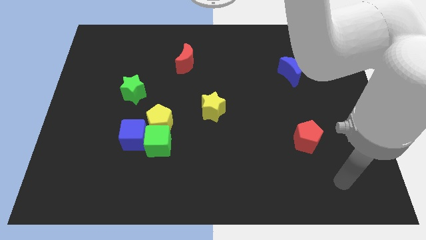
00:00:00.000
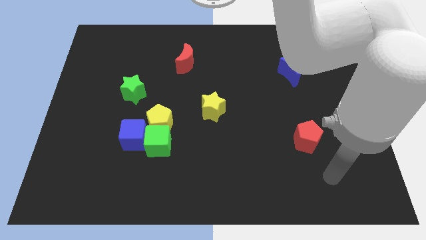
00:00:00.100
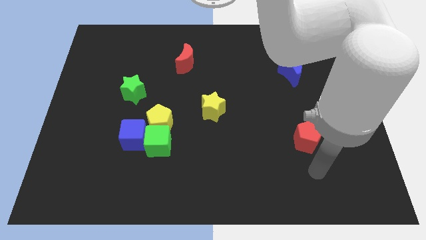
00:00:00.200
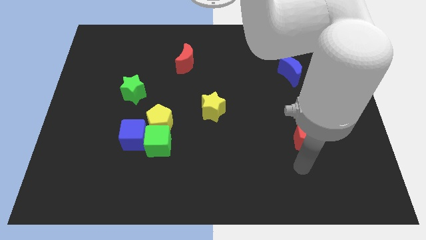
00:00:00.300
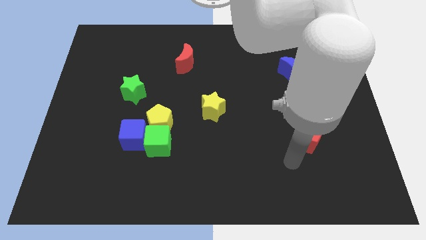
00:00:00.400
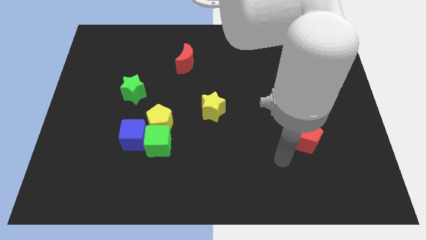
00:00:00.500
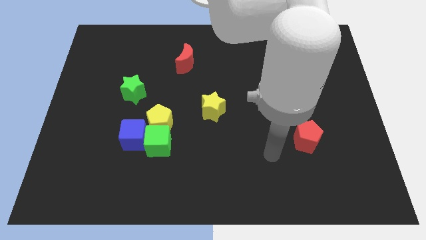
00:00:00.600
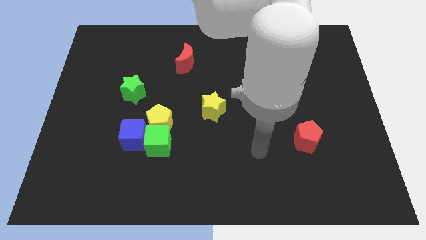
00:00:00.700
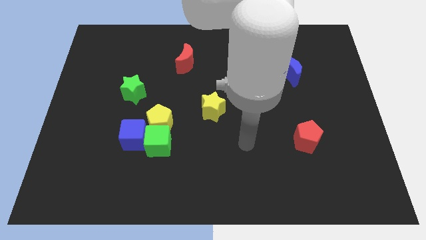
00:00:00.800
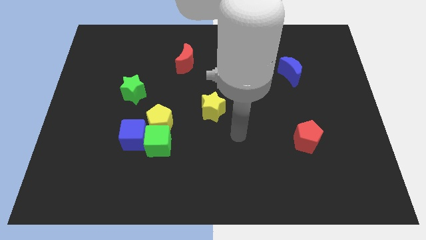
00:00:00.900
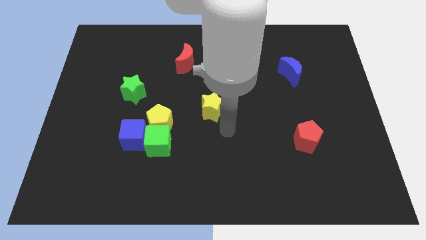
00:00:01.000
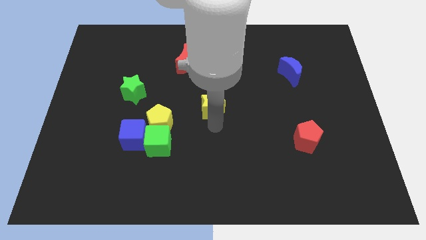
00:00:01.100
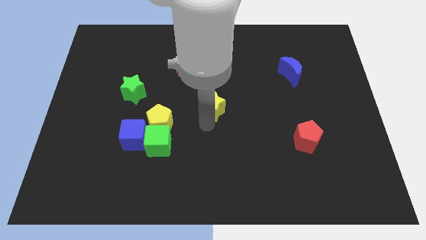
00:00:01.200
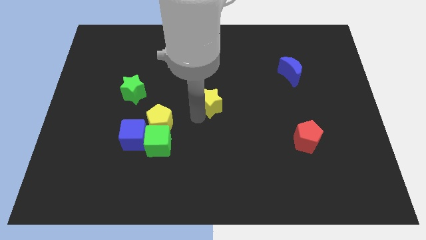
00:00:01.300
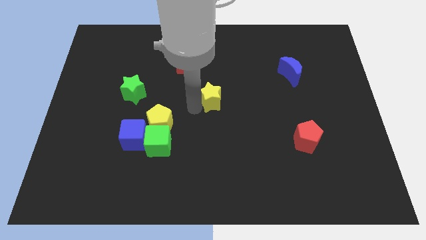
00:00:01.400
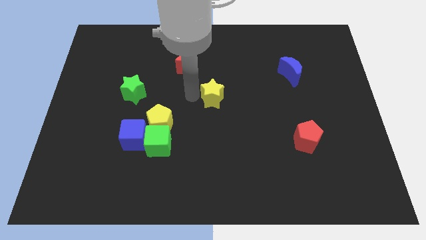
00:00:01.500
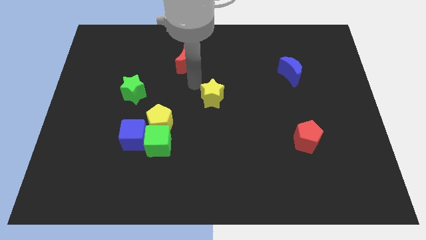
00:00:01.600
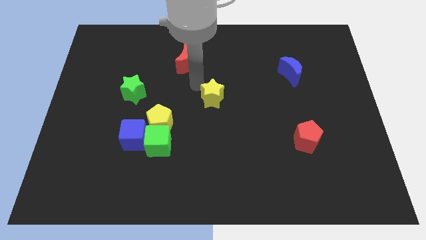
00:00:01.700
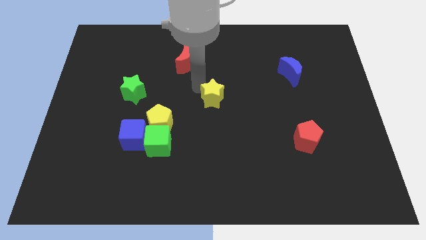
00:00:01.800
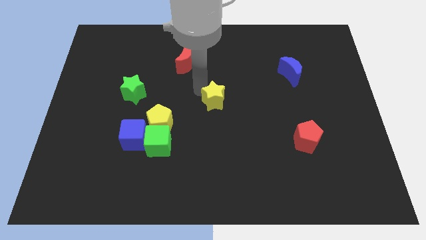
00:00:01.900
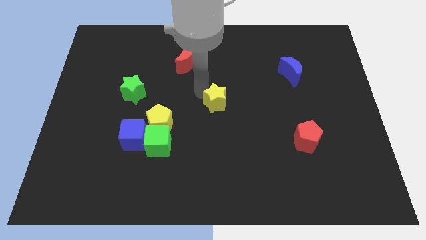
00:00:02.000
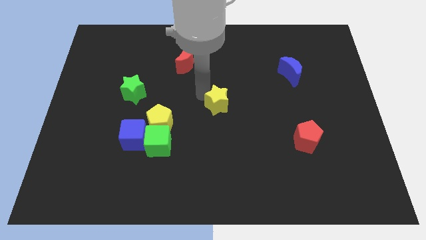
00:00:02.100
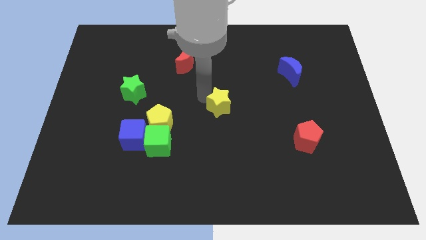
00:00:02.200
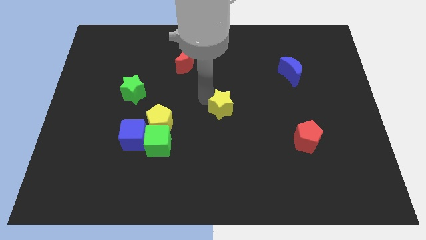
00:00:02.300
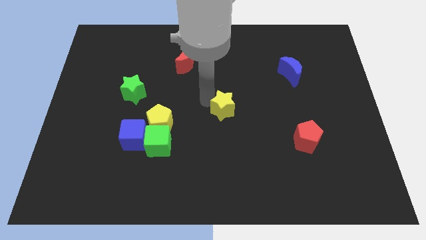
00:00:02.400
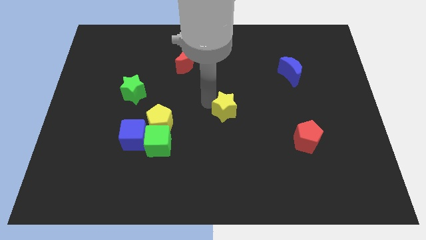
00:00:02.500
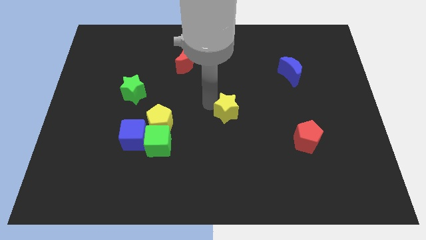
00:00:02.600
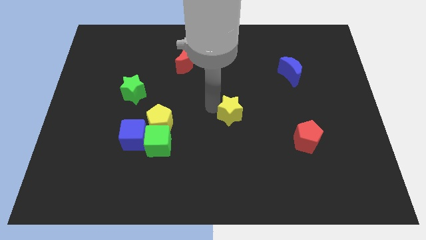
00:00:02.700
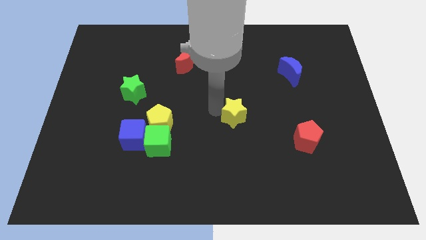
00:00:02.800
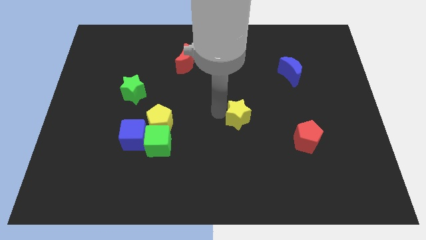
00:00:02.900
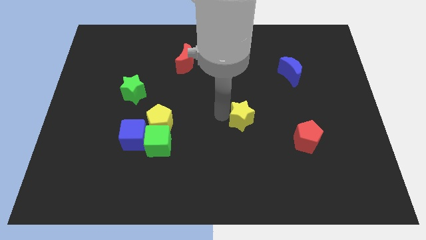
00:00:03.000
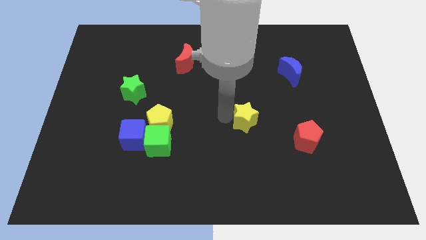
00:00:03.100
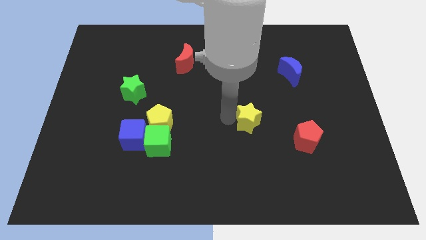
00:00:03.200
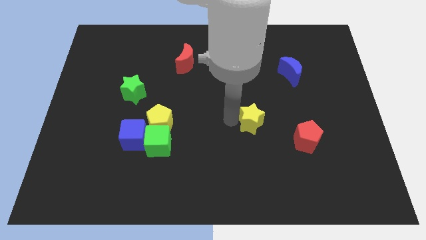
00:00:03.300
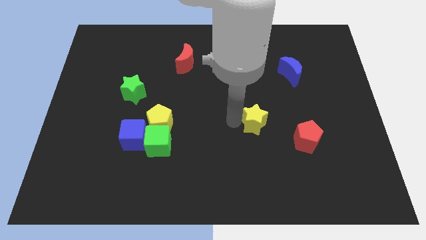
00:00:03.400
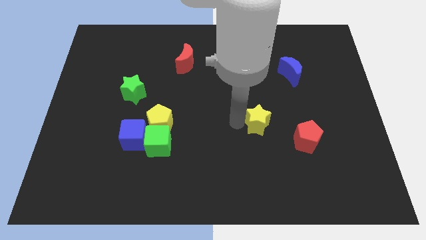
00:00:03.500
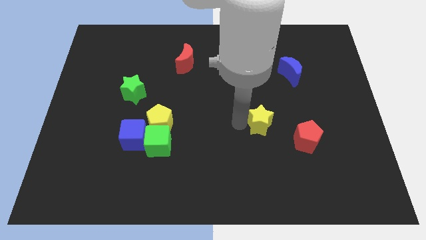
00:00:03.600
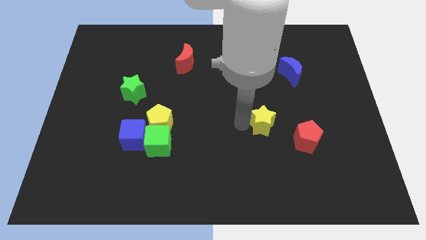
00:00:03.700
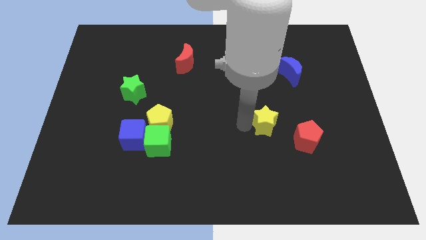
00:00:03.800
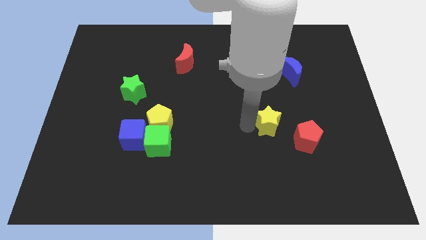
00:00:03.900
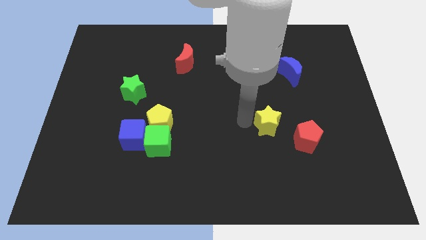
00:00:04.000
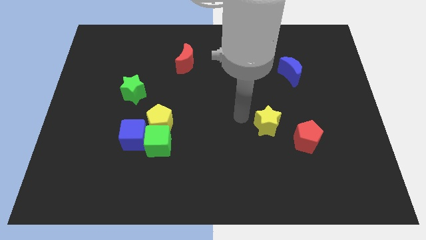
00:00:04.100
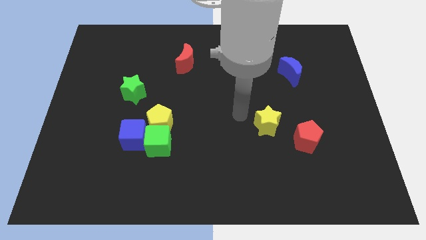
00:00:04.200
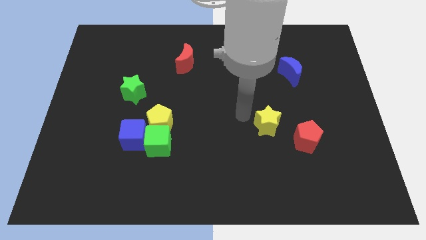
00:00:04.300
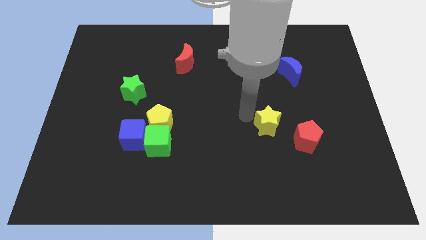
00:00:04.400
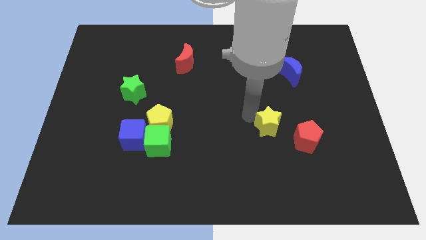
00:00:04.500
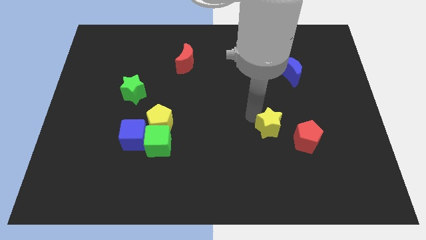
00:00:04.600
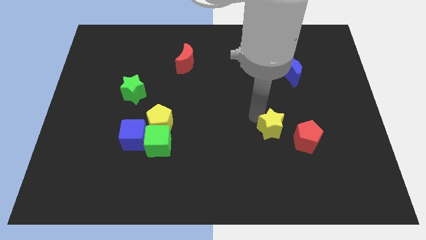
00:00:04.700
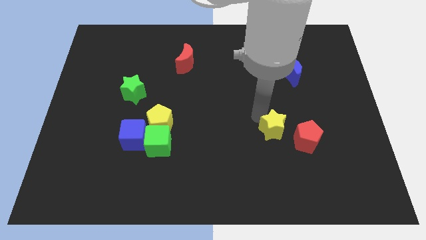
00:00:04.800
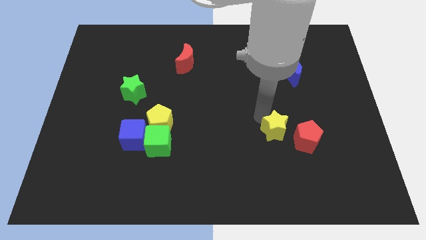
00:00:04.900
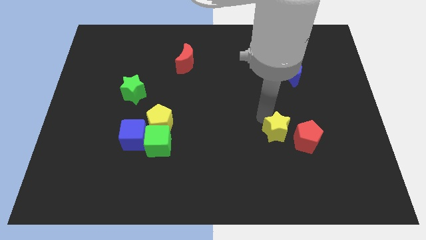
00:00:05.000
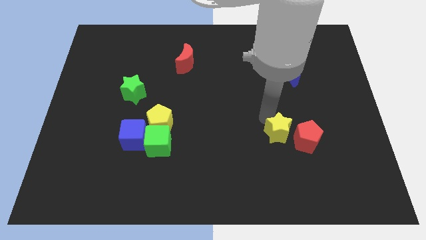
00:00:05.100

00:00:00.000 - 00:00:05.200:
push the yellow star towards the red pentagon

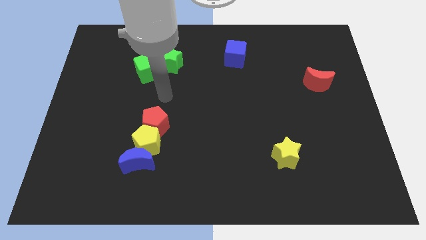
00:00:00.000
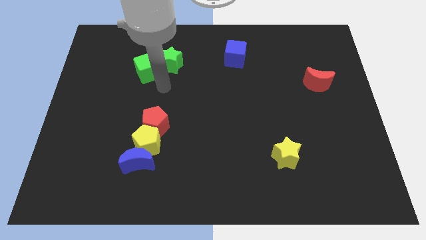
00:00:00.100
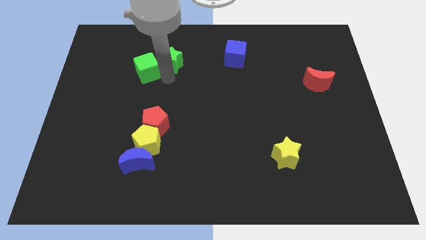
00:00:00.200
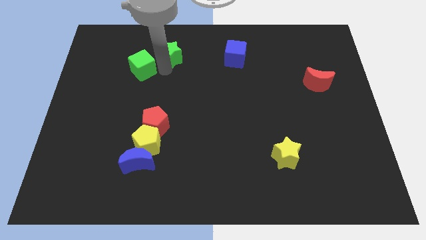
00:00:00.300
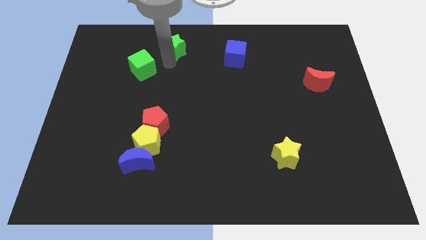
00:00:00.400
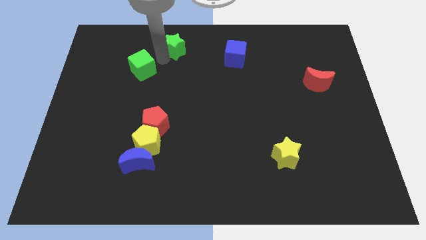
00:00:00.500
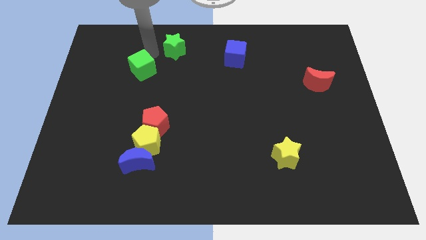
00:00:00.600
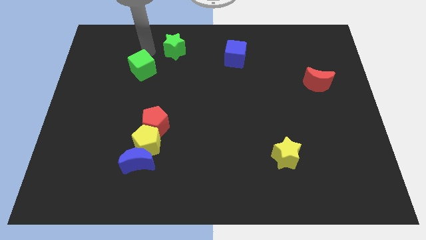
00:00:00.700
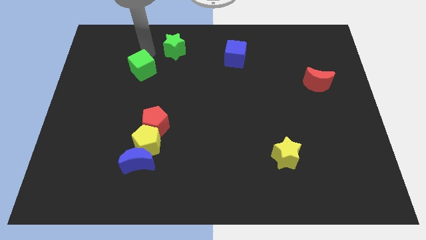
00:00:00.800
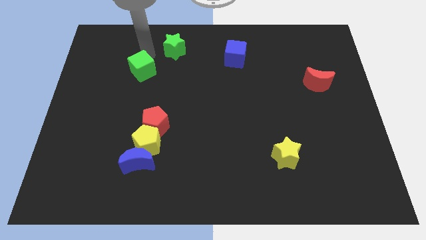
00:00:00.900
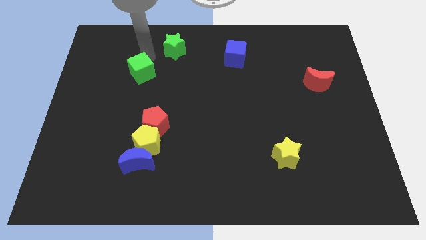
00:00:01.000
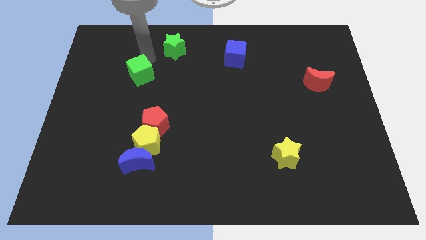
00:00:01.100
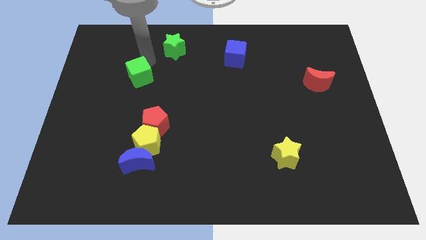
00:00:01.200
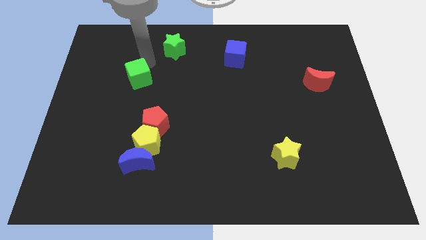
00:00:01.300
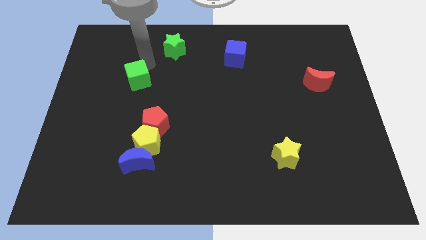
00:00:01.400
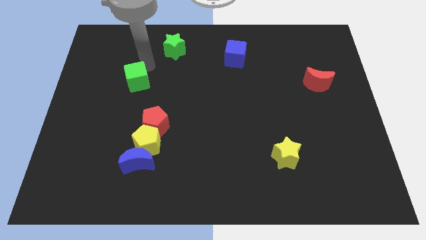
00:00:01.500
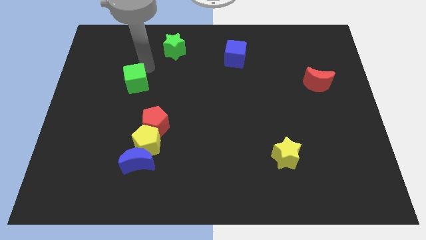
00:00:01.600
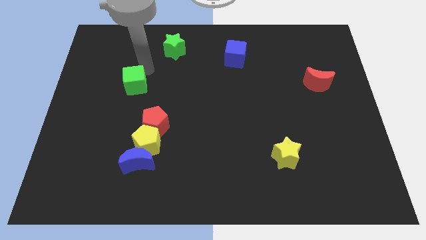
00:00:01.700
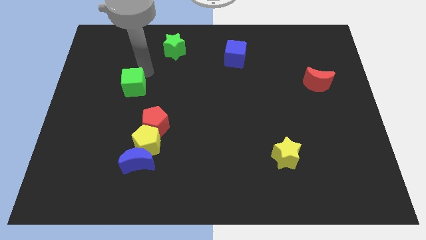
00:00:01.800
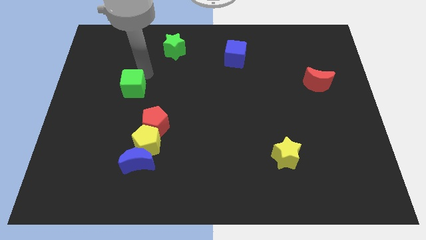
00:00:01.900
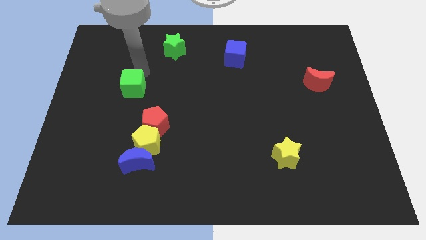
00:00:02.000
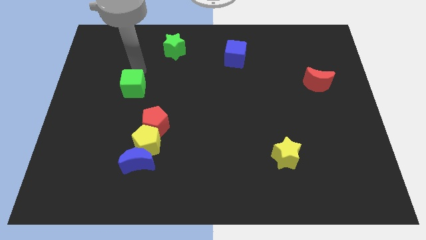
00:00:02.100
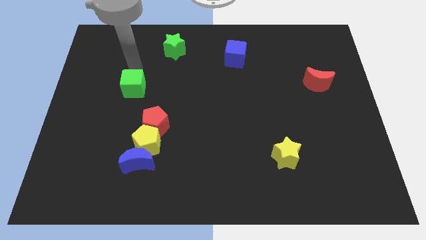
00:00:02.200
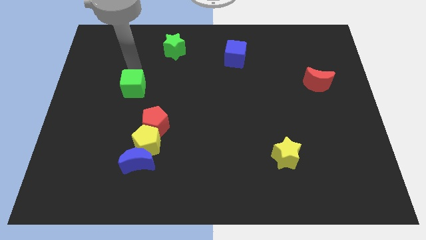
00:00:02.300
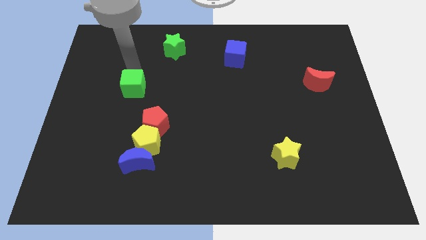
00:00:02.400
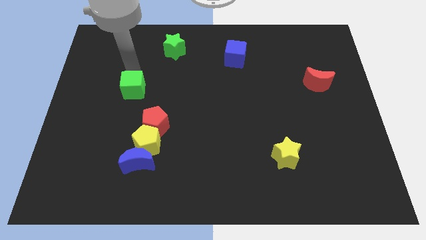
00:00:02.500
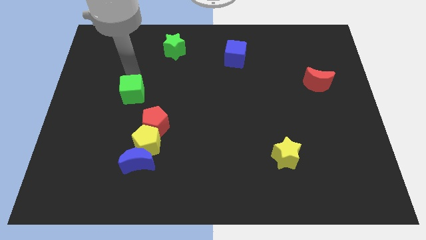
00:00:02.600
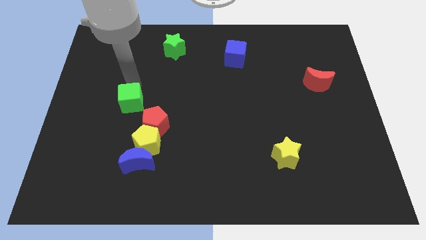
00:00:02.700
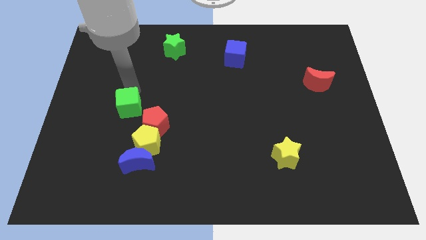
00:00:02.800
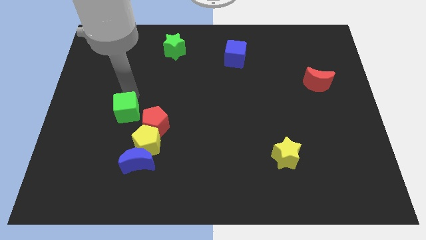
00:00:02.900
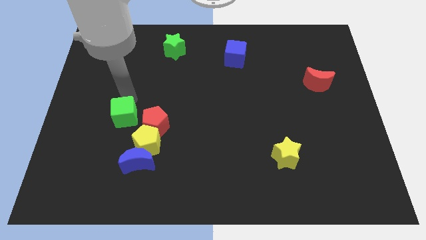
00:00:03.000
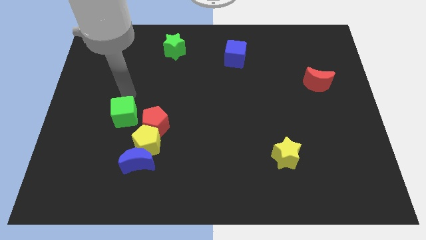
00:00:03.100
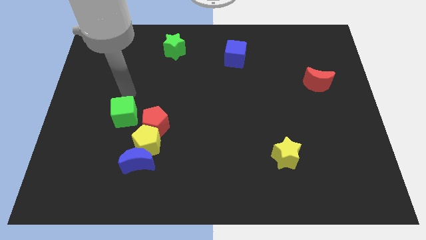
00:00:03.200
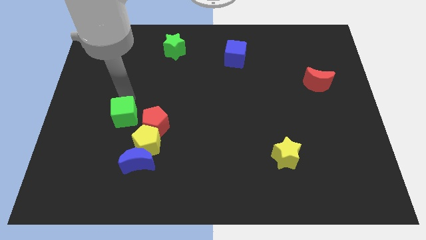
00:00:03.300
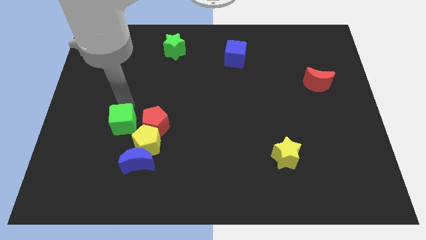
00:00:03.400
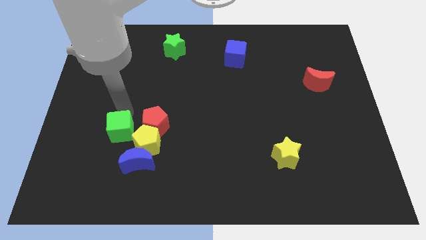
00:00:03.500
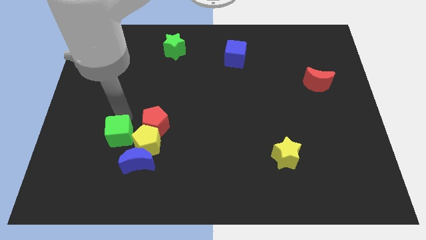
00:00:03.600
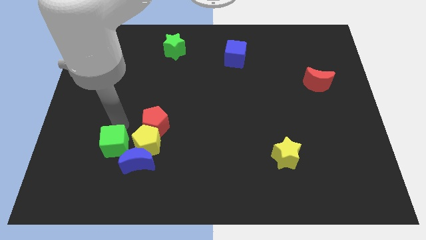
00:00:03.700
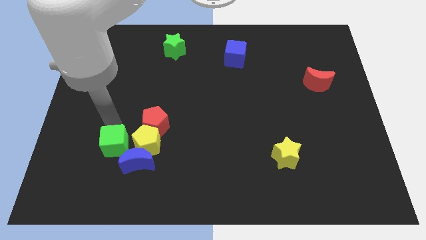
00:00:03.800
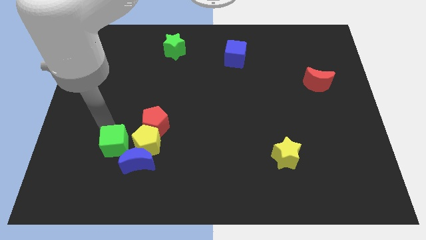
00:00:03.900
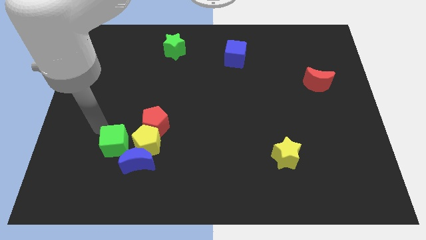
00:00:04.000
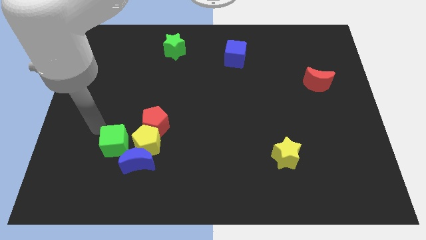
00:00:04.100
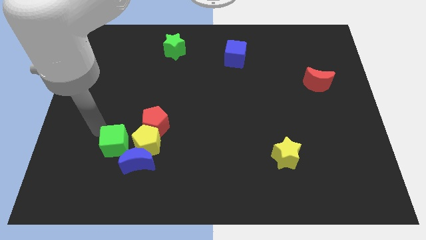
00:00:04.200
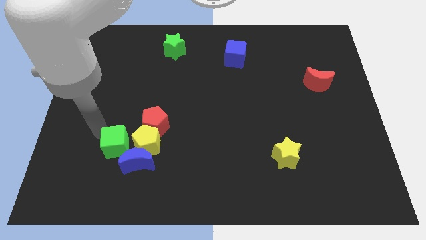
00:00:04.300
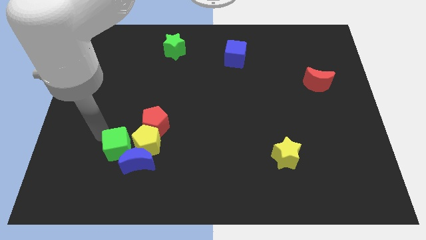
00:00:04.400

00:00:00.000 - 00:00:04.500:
put the green cube close to the blue moon
